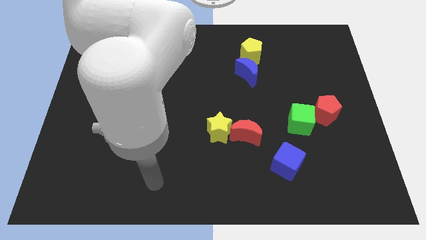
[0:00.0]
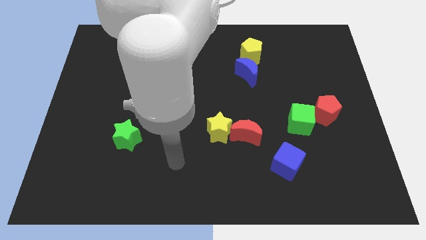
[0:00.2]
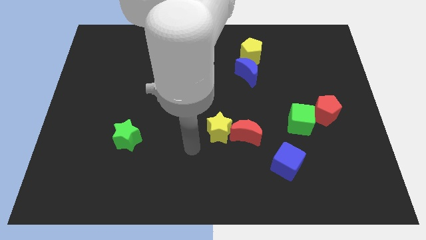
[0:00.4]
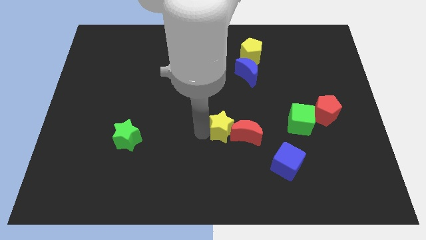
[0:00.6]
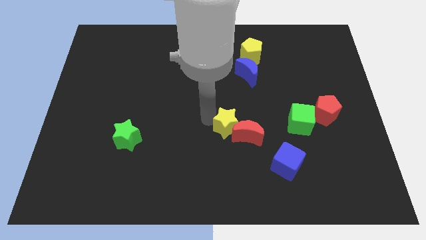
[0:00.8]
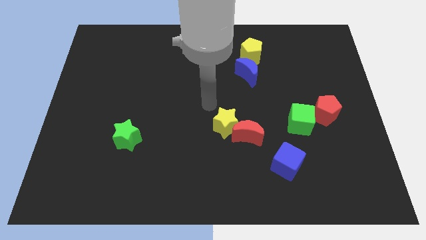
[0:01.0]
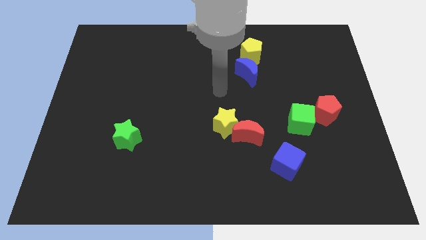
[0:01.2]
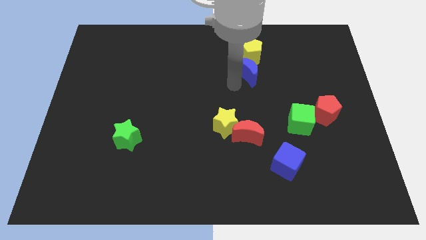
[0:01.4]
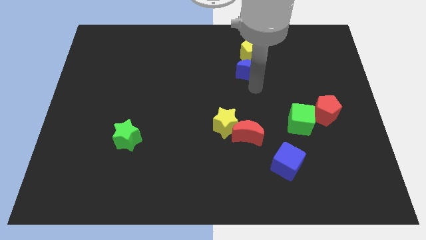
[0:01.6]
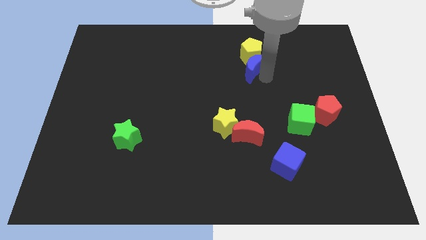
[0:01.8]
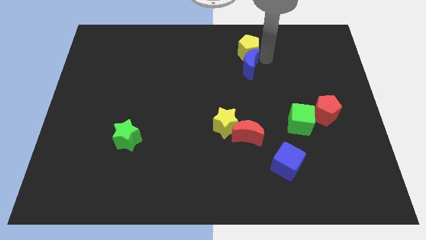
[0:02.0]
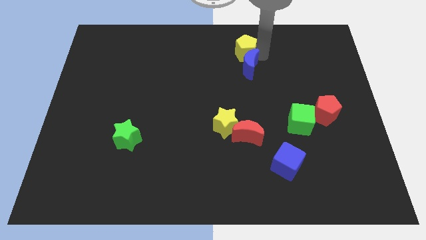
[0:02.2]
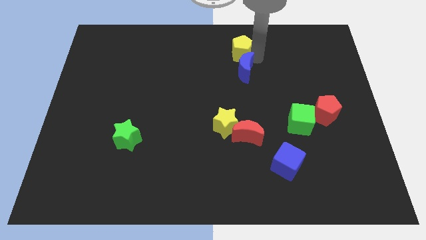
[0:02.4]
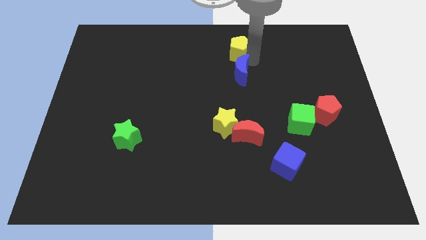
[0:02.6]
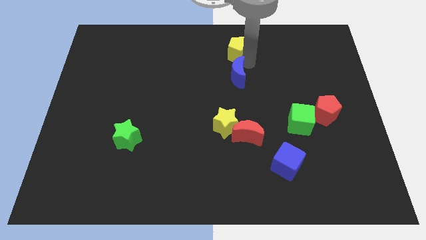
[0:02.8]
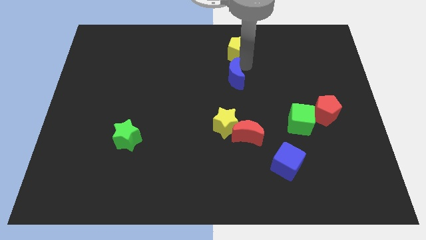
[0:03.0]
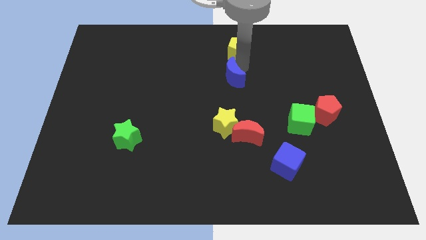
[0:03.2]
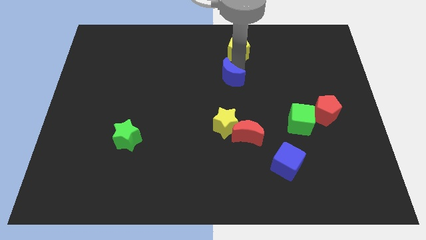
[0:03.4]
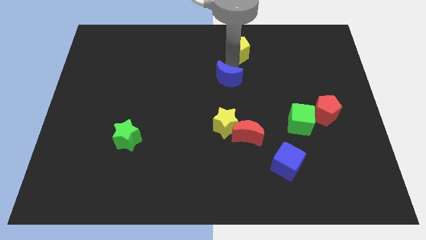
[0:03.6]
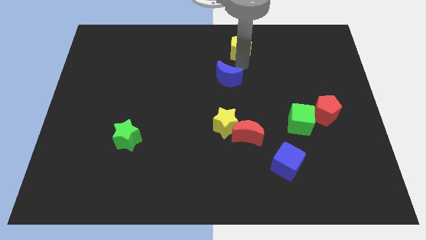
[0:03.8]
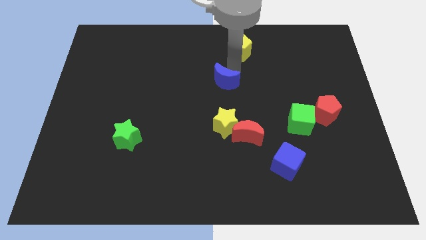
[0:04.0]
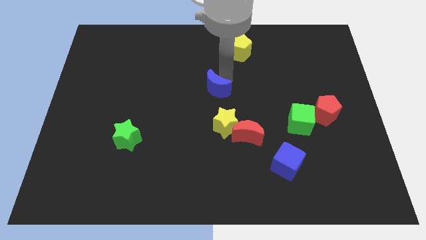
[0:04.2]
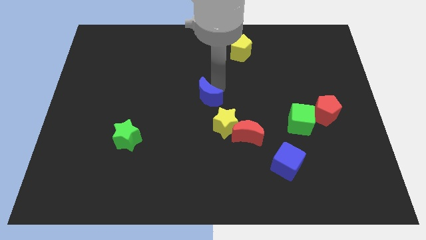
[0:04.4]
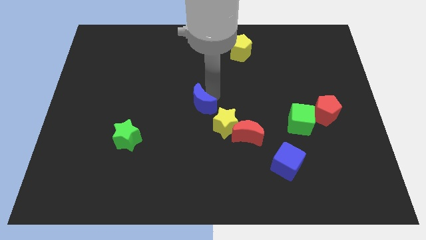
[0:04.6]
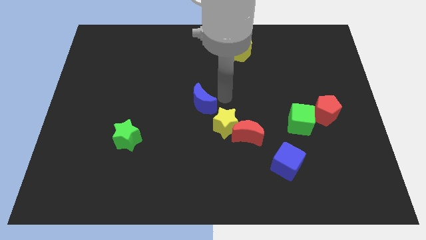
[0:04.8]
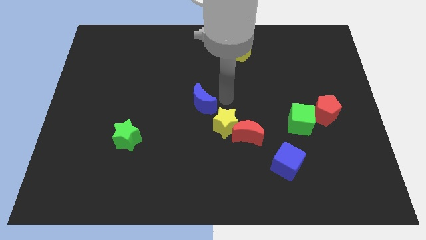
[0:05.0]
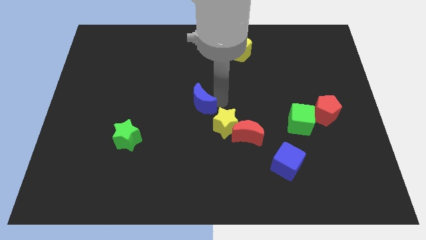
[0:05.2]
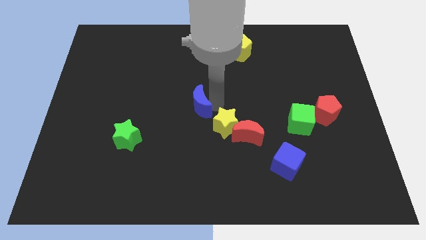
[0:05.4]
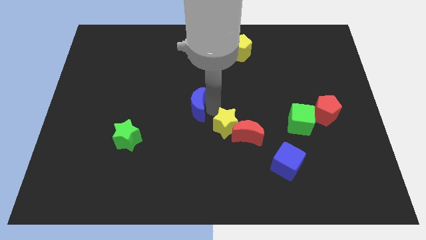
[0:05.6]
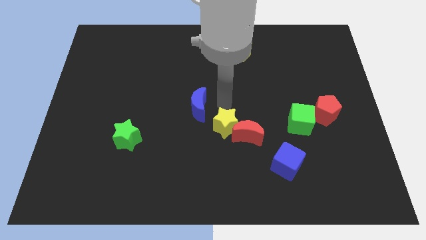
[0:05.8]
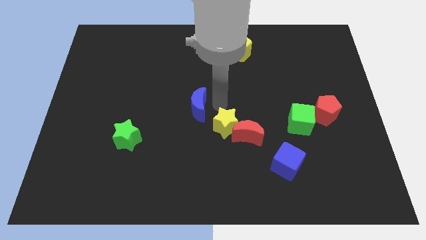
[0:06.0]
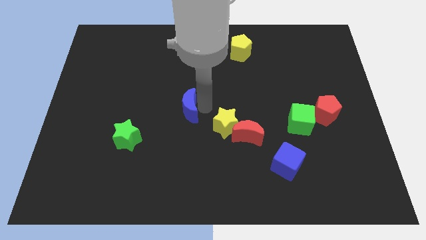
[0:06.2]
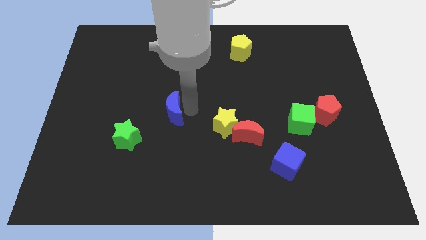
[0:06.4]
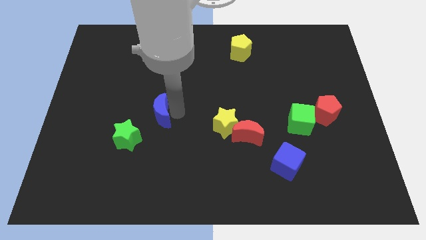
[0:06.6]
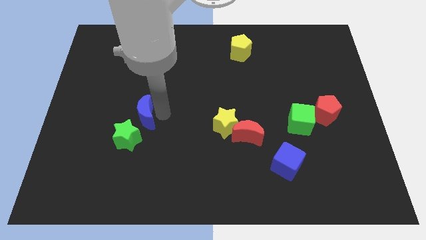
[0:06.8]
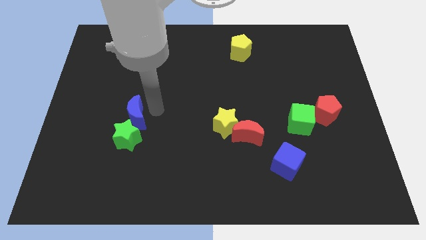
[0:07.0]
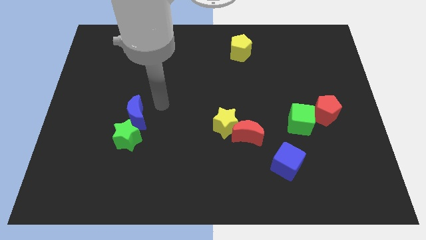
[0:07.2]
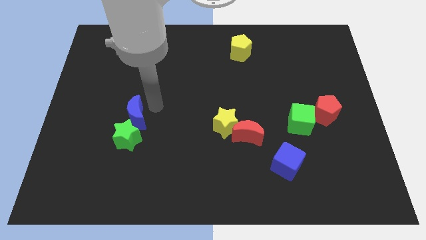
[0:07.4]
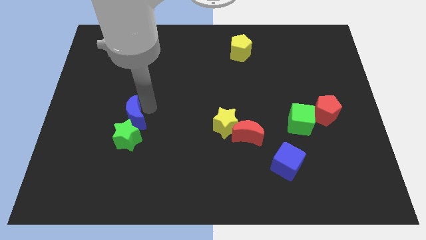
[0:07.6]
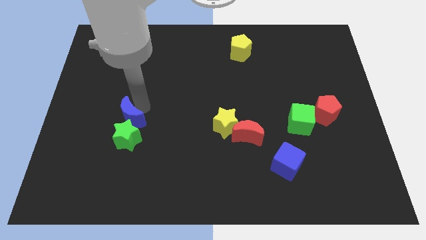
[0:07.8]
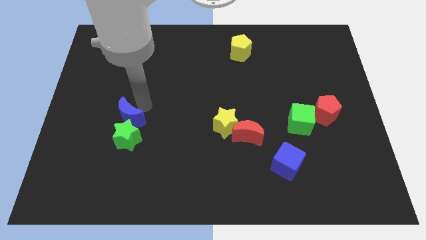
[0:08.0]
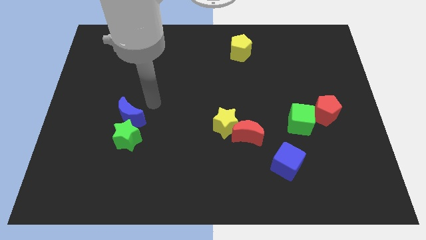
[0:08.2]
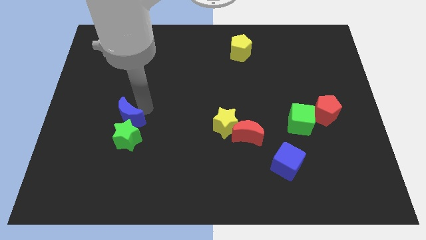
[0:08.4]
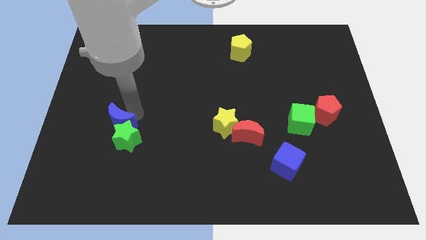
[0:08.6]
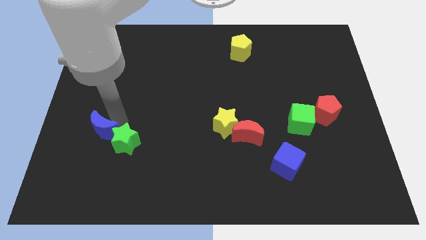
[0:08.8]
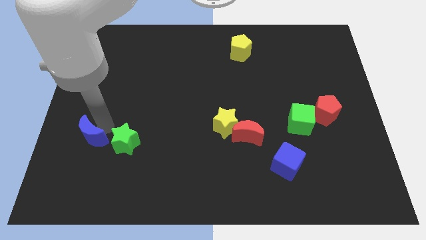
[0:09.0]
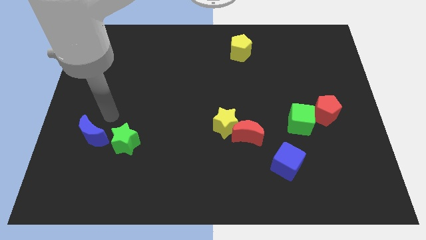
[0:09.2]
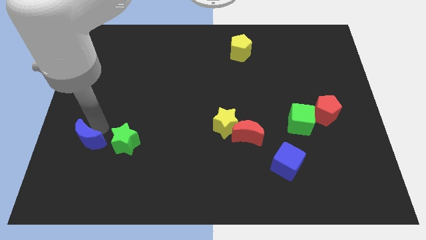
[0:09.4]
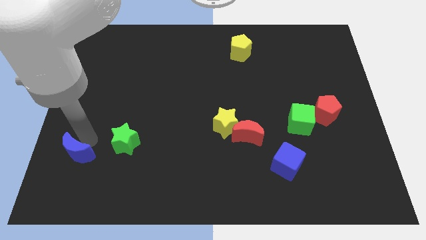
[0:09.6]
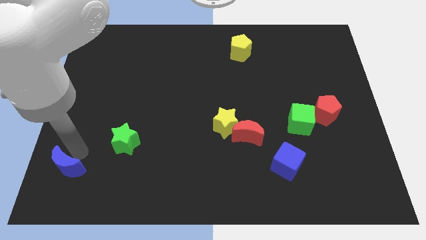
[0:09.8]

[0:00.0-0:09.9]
put the blue moon to the bottom left corner

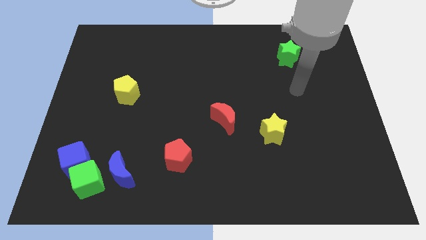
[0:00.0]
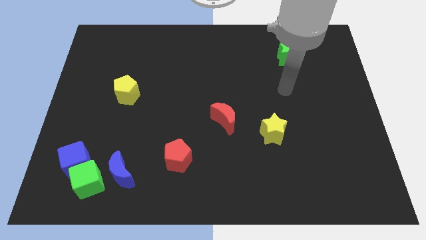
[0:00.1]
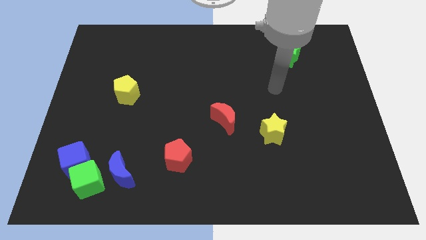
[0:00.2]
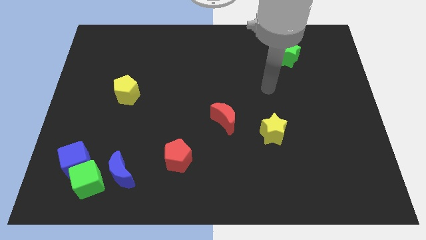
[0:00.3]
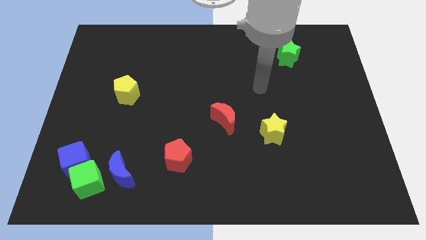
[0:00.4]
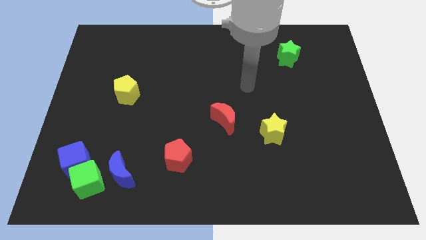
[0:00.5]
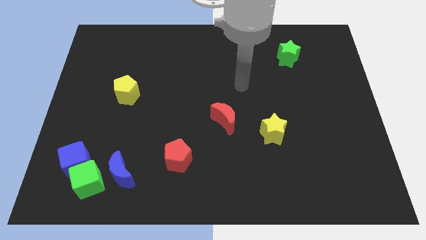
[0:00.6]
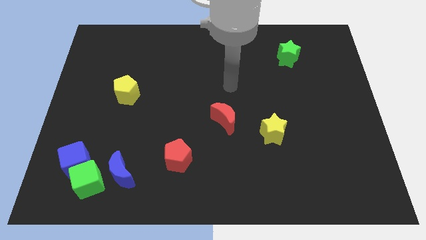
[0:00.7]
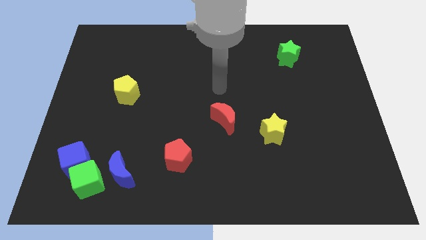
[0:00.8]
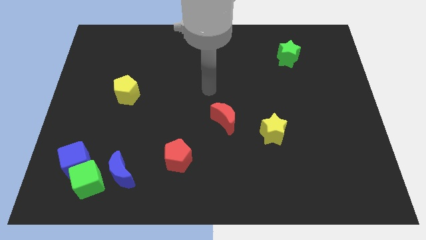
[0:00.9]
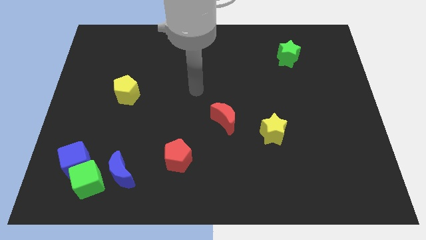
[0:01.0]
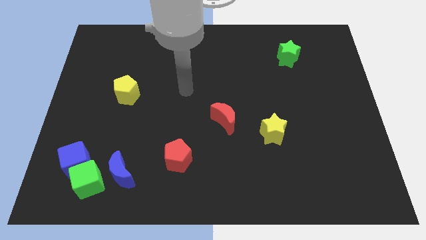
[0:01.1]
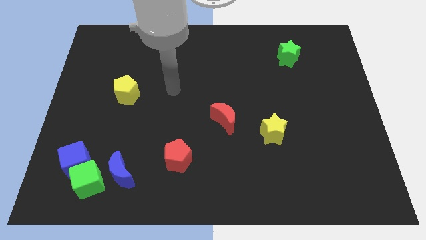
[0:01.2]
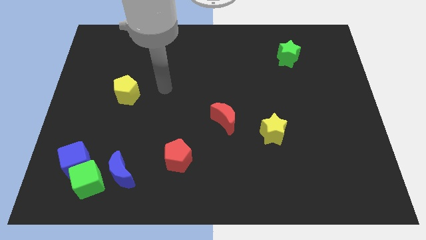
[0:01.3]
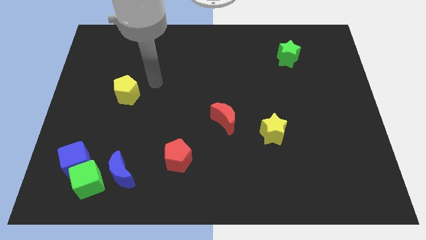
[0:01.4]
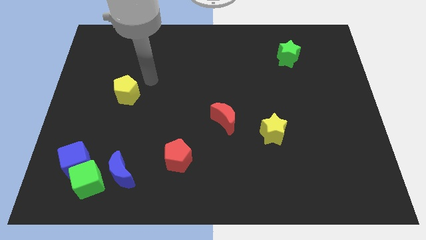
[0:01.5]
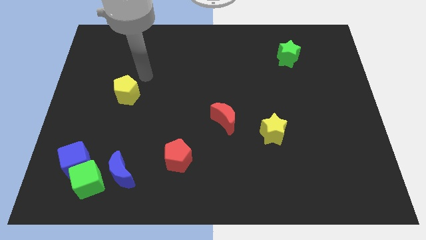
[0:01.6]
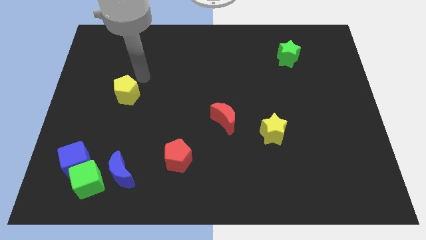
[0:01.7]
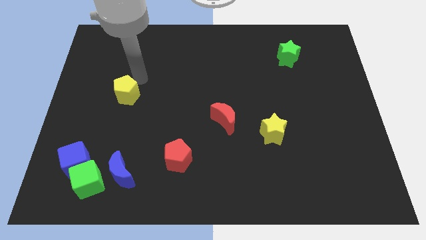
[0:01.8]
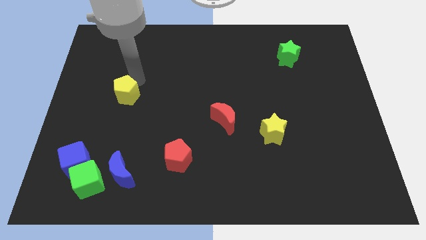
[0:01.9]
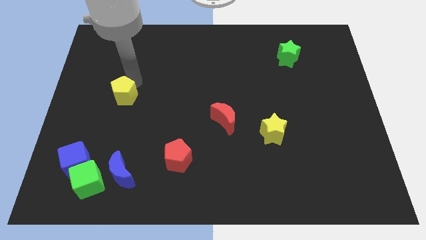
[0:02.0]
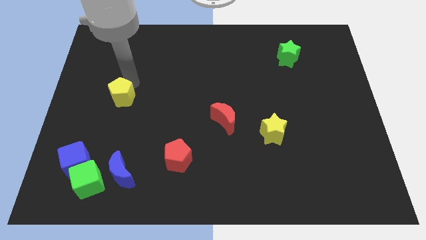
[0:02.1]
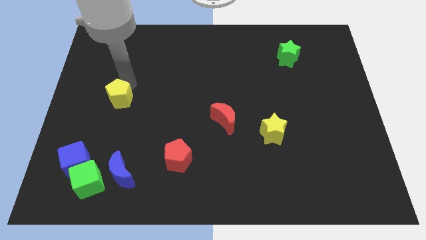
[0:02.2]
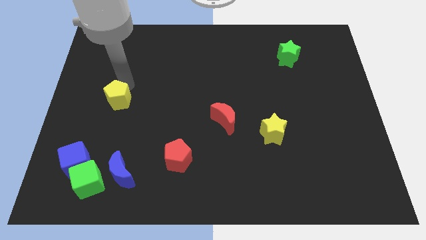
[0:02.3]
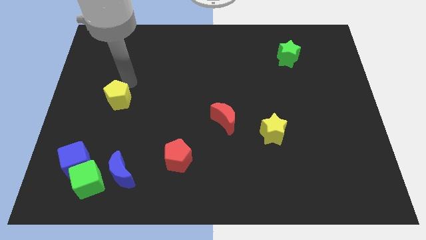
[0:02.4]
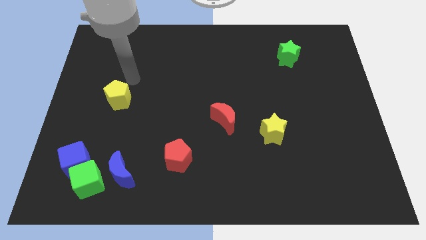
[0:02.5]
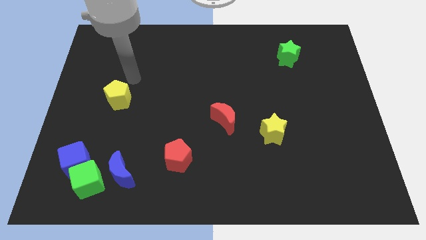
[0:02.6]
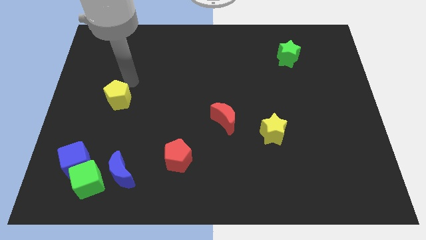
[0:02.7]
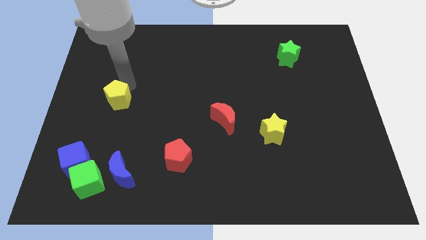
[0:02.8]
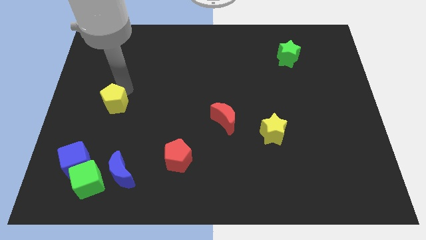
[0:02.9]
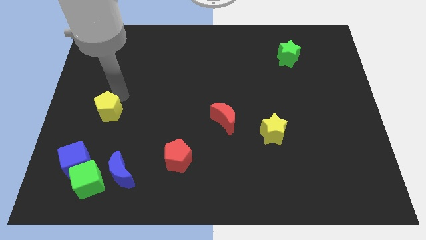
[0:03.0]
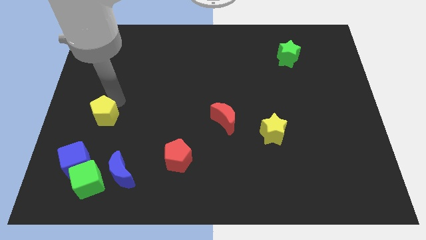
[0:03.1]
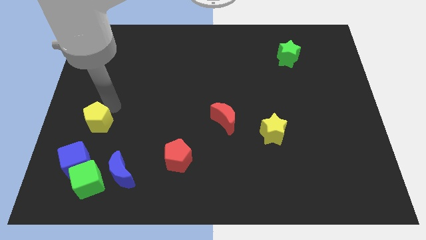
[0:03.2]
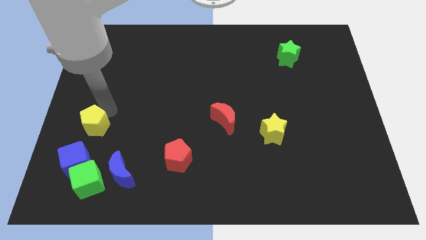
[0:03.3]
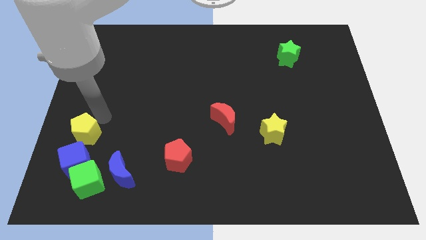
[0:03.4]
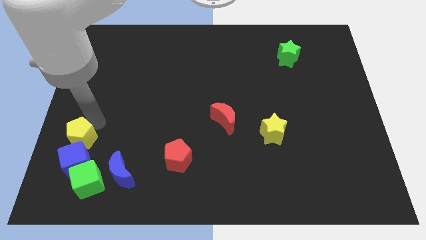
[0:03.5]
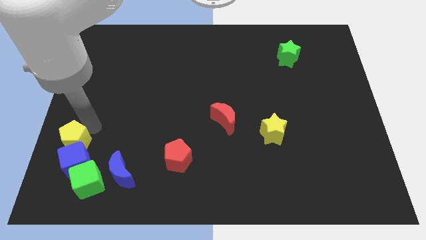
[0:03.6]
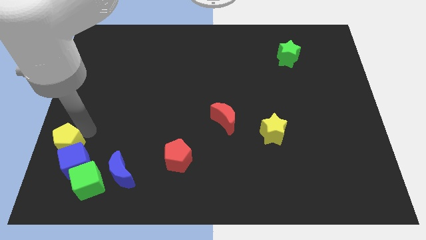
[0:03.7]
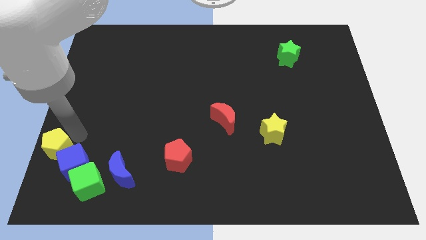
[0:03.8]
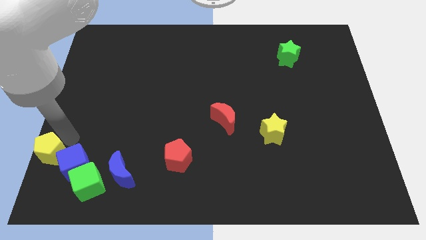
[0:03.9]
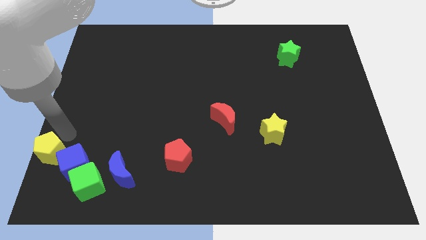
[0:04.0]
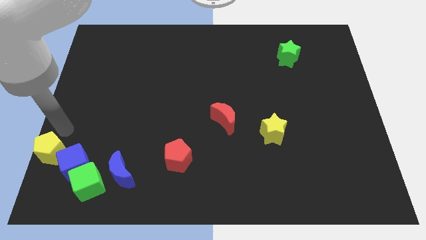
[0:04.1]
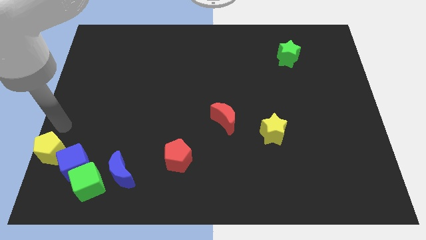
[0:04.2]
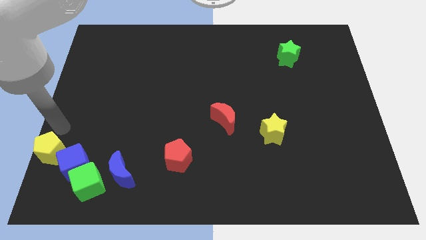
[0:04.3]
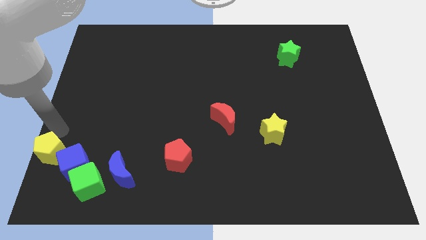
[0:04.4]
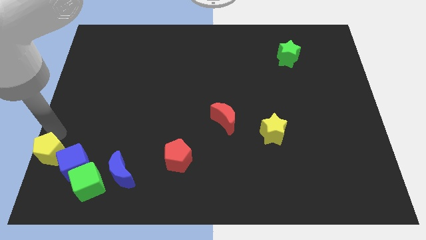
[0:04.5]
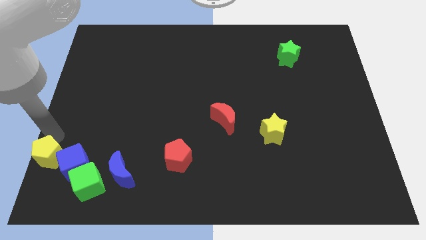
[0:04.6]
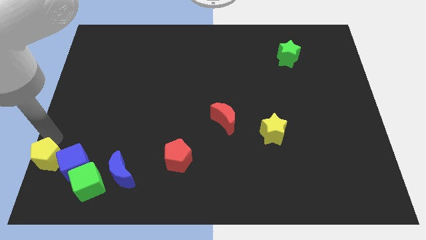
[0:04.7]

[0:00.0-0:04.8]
put the yellow pentagon to the bottom left corner
